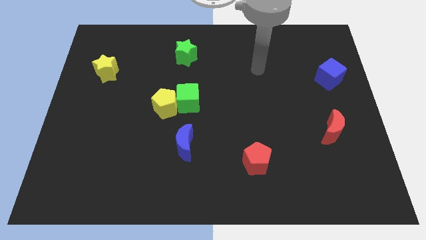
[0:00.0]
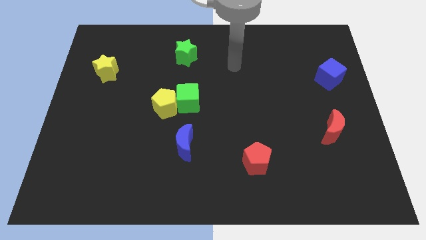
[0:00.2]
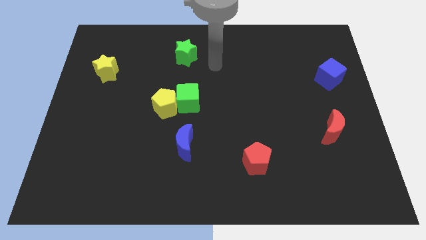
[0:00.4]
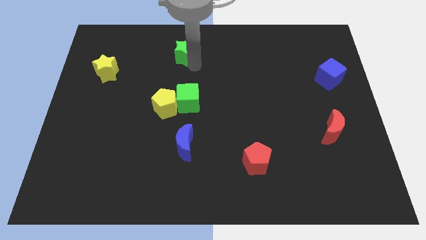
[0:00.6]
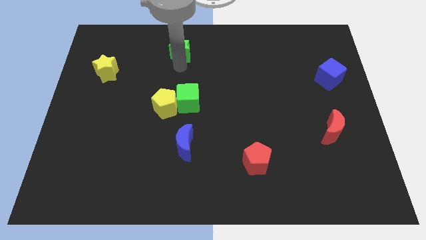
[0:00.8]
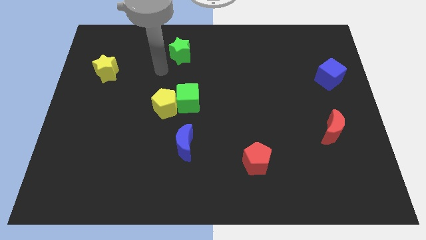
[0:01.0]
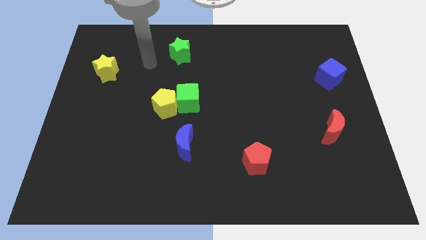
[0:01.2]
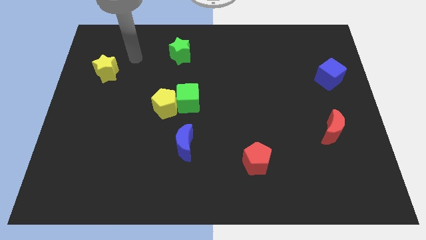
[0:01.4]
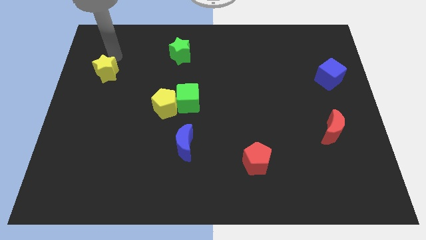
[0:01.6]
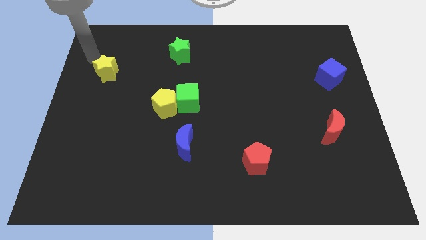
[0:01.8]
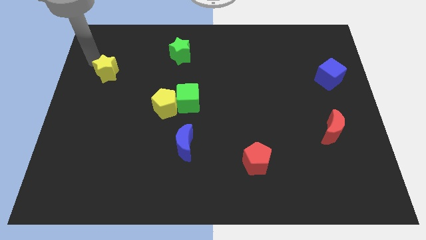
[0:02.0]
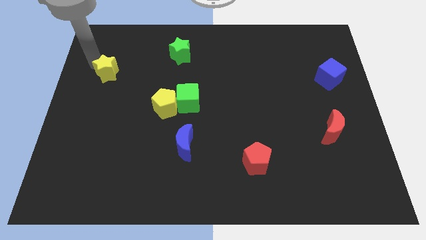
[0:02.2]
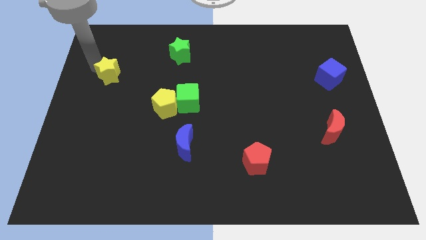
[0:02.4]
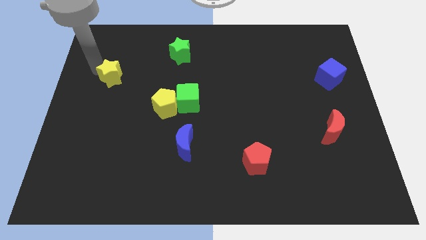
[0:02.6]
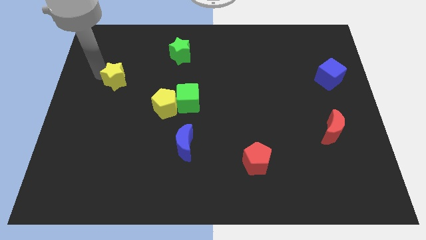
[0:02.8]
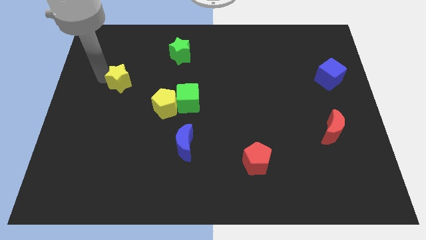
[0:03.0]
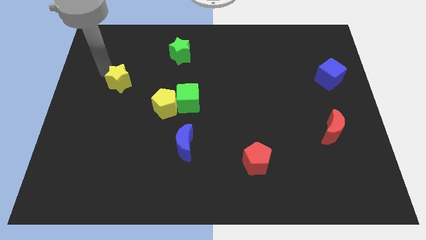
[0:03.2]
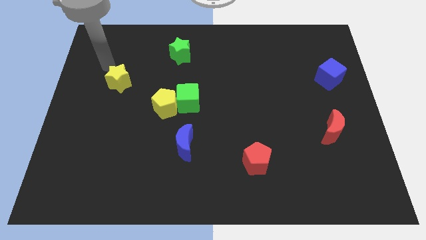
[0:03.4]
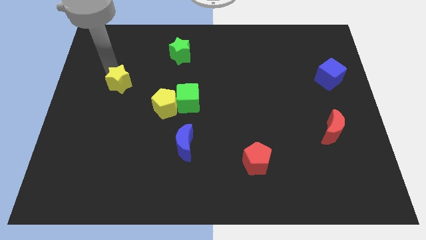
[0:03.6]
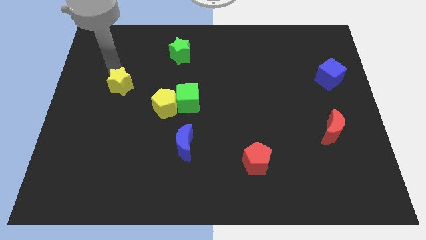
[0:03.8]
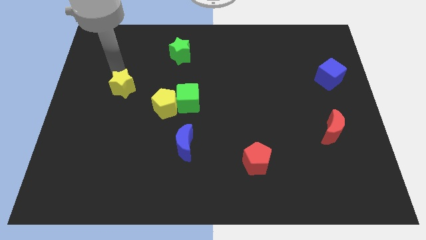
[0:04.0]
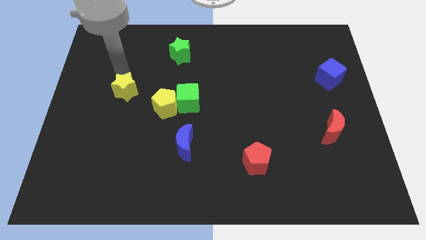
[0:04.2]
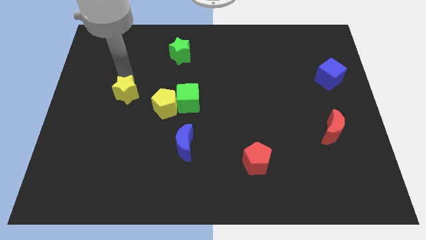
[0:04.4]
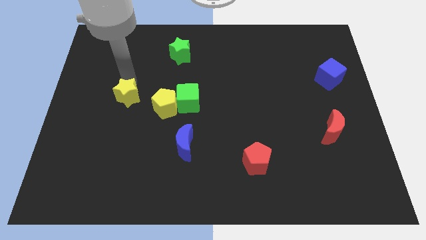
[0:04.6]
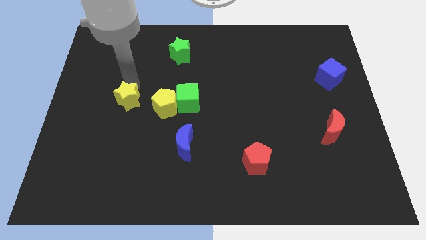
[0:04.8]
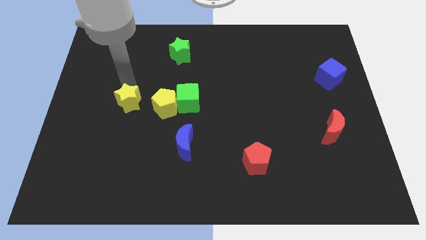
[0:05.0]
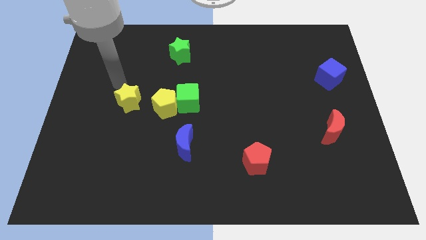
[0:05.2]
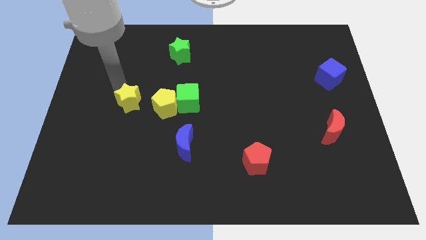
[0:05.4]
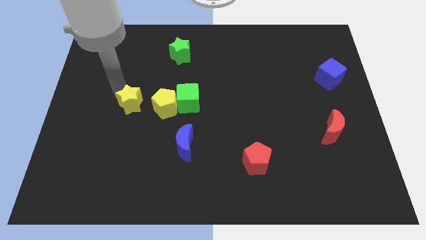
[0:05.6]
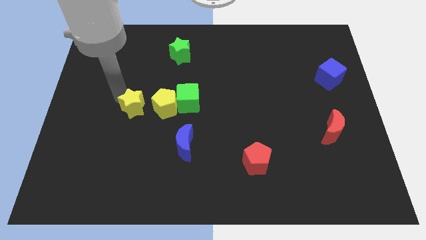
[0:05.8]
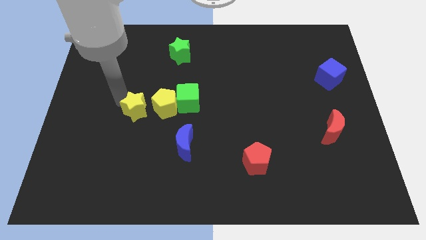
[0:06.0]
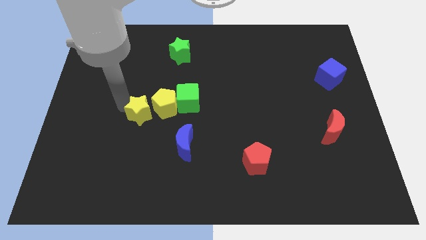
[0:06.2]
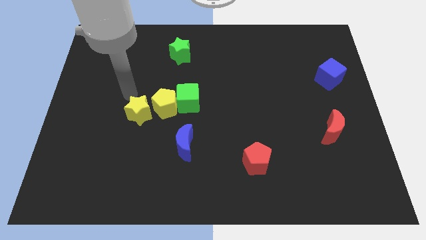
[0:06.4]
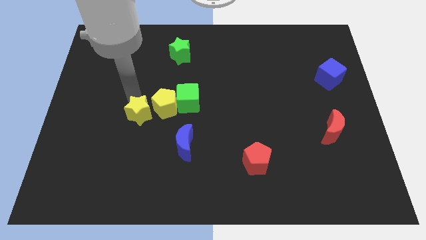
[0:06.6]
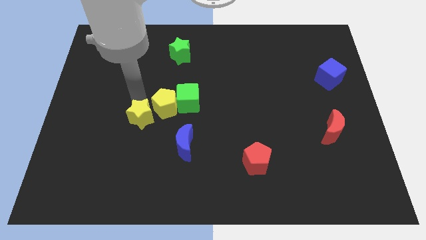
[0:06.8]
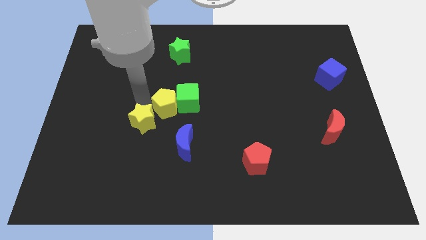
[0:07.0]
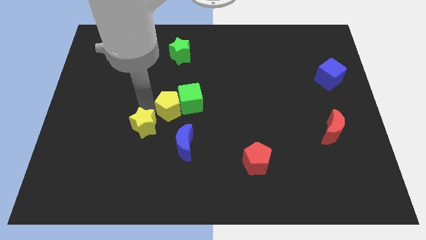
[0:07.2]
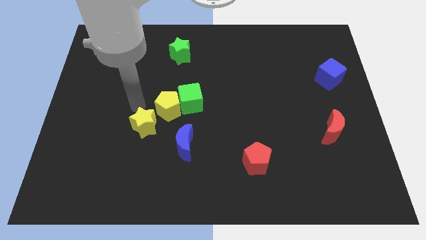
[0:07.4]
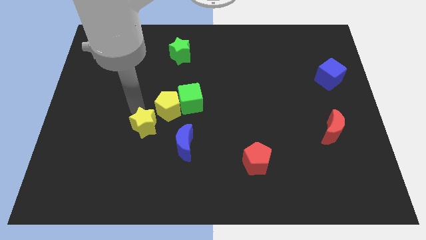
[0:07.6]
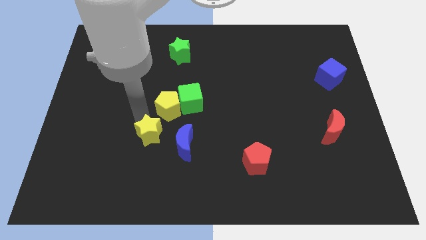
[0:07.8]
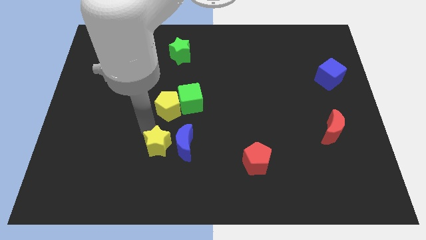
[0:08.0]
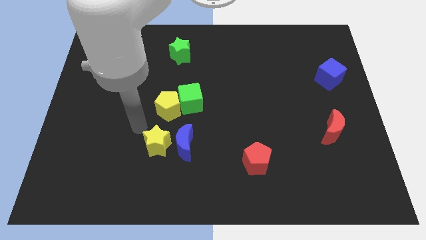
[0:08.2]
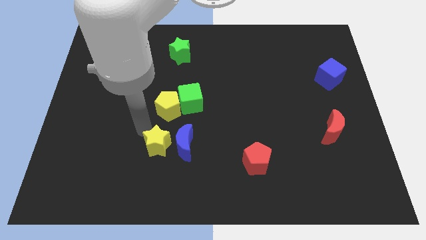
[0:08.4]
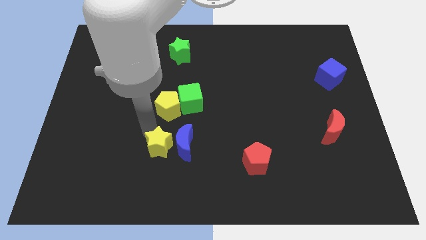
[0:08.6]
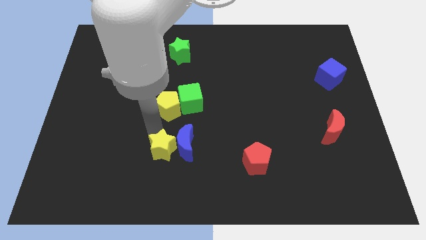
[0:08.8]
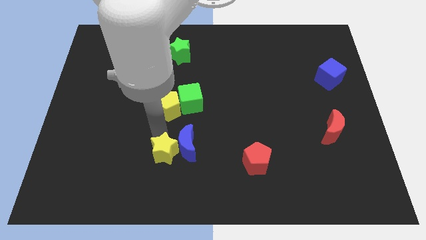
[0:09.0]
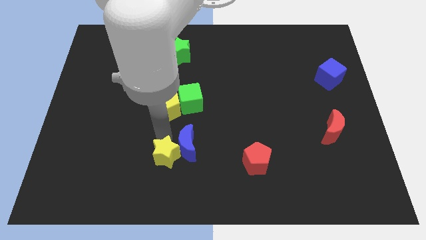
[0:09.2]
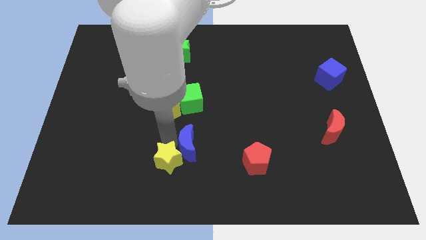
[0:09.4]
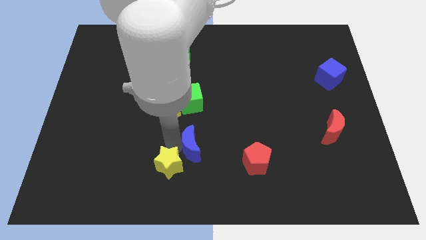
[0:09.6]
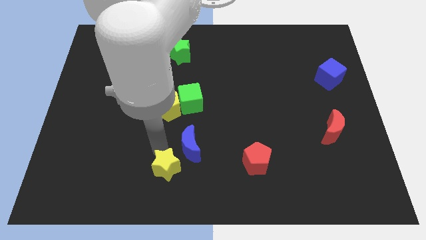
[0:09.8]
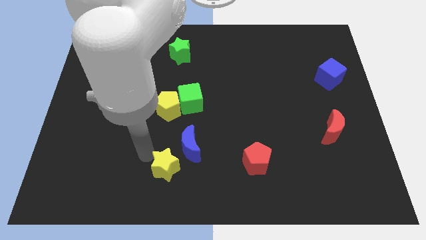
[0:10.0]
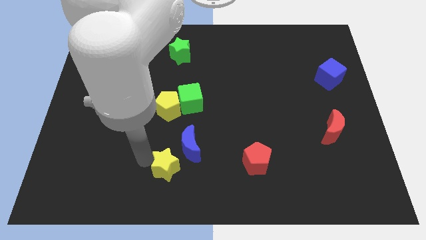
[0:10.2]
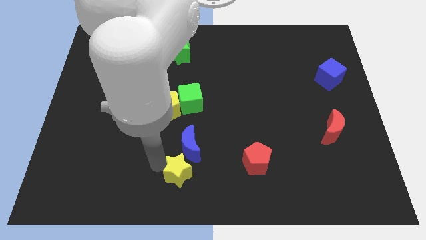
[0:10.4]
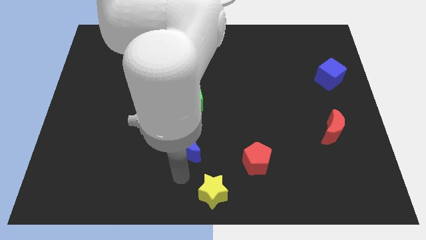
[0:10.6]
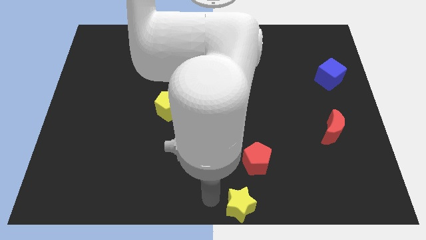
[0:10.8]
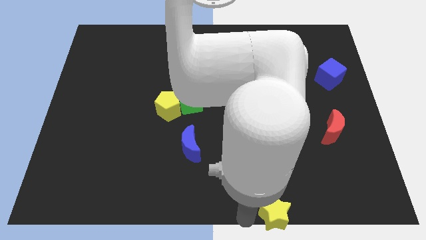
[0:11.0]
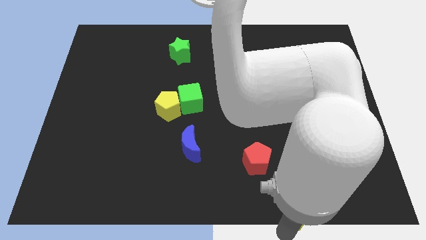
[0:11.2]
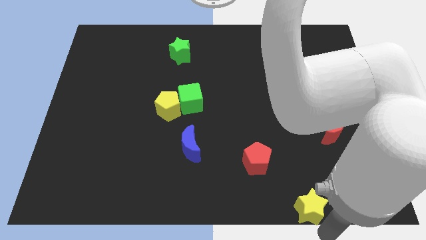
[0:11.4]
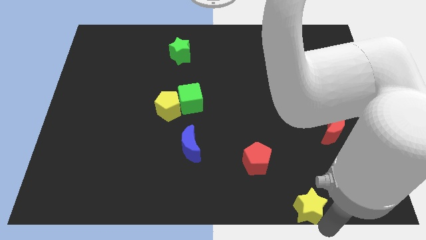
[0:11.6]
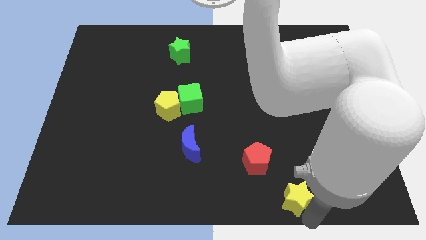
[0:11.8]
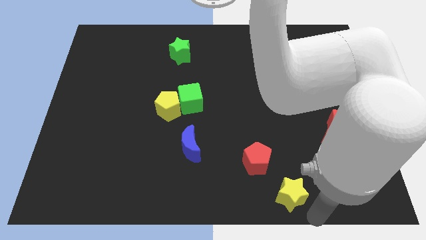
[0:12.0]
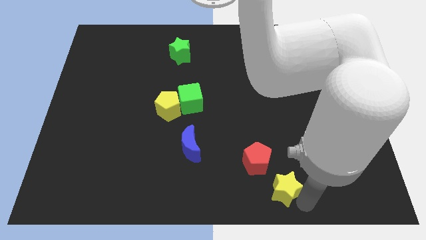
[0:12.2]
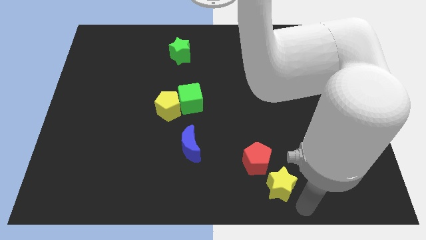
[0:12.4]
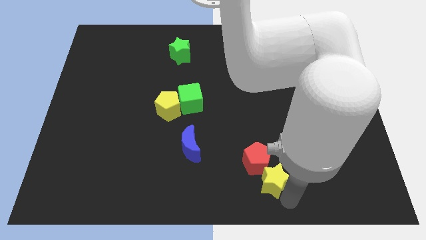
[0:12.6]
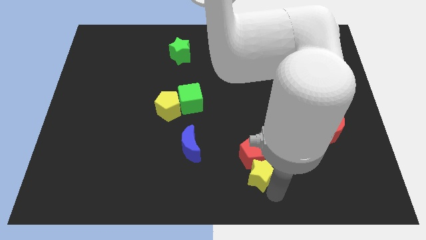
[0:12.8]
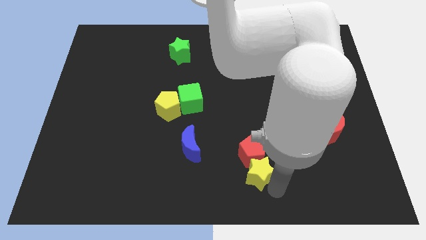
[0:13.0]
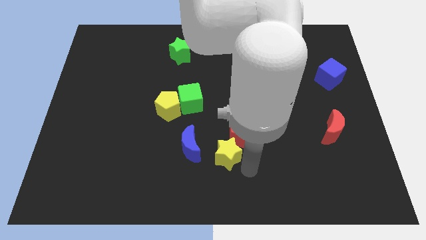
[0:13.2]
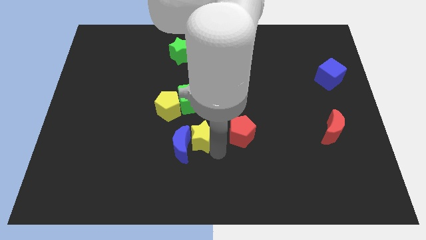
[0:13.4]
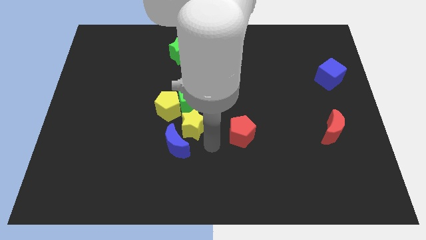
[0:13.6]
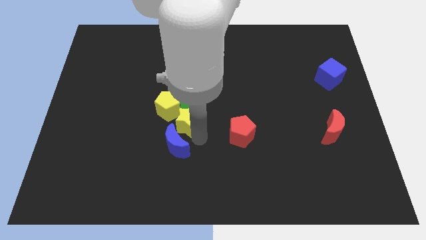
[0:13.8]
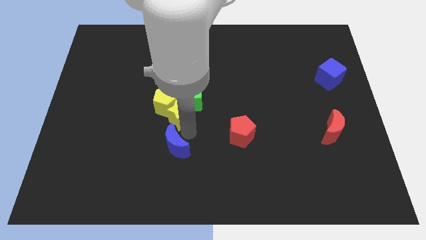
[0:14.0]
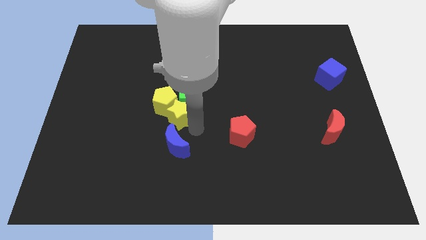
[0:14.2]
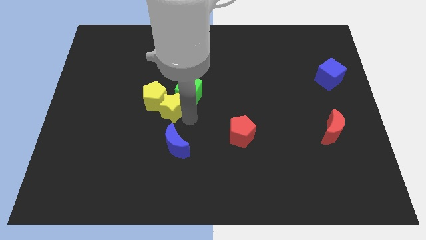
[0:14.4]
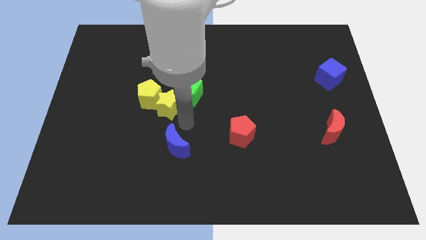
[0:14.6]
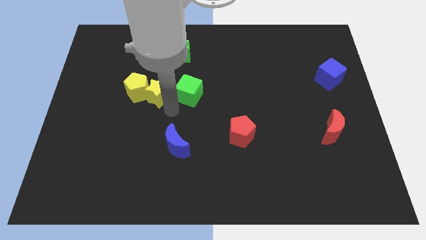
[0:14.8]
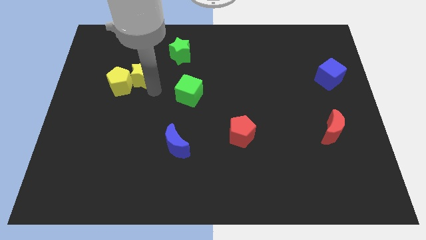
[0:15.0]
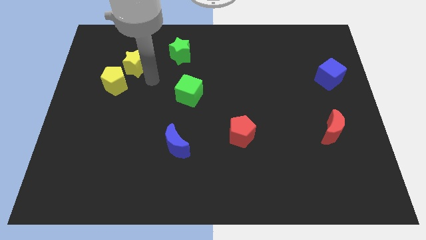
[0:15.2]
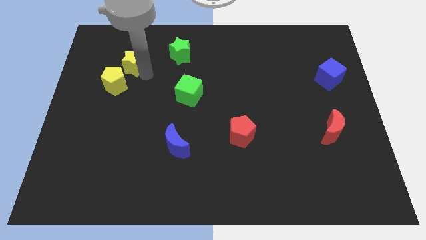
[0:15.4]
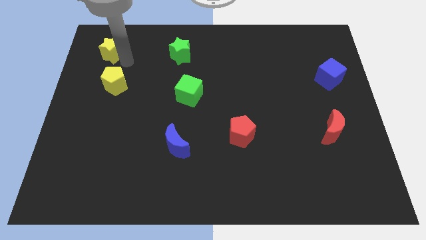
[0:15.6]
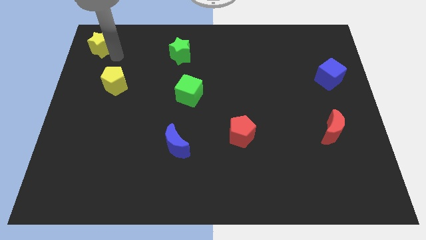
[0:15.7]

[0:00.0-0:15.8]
put the yellow star to the top left
